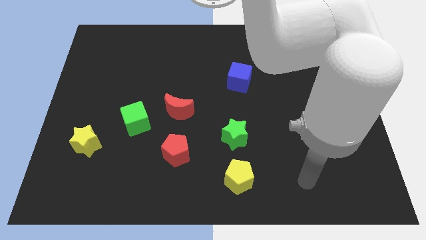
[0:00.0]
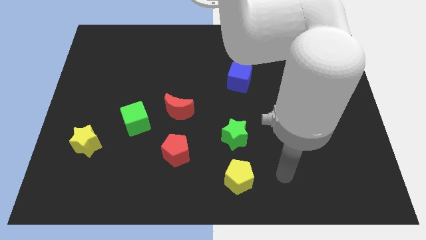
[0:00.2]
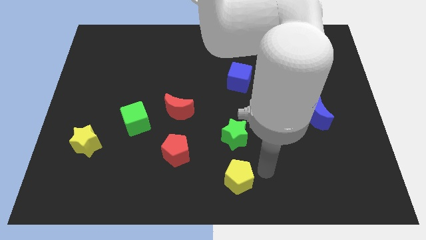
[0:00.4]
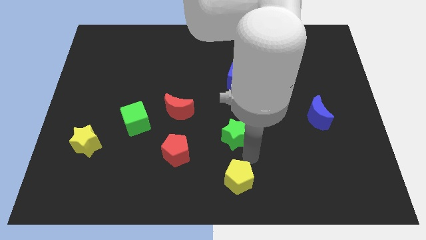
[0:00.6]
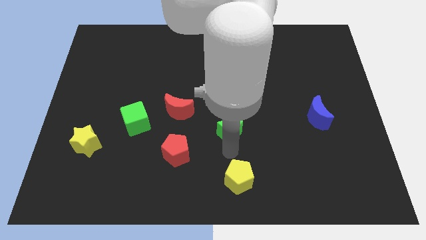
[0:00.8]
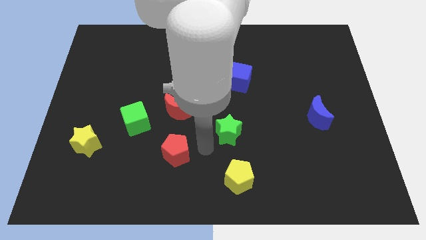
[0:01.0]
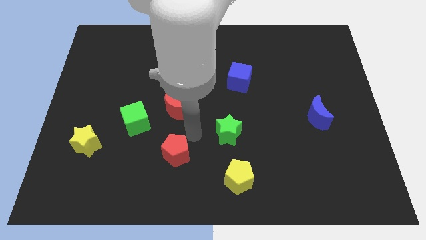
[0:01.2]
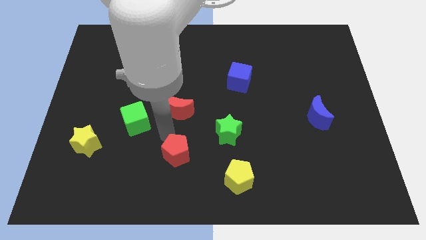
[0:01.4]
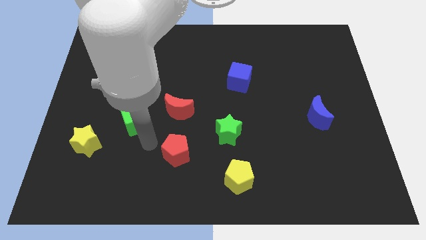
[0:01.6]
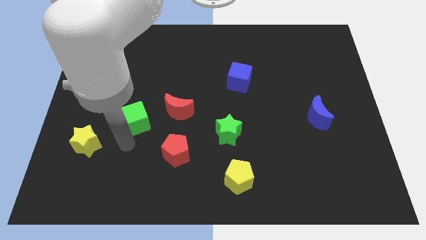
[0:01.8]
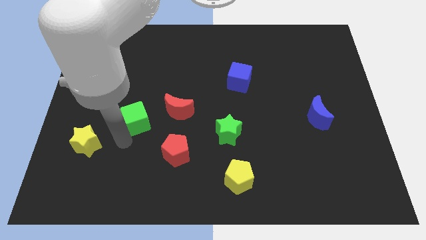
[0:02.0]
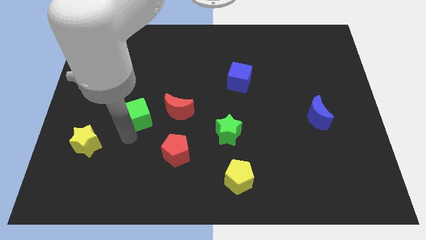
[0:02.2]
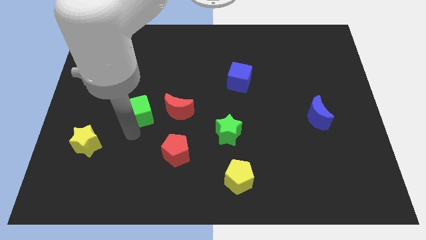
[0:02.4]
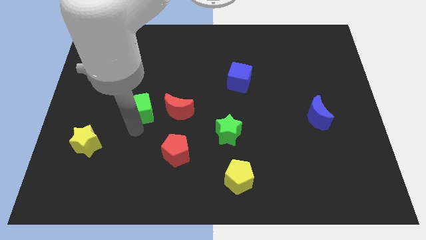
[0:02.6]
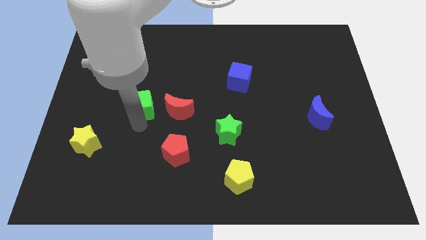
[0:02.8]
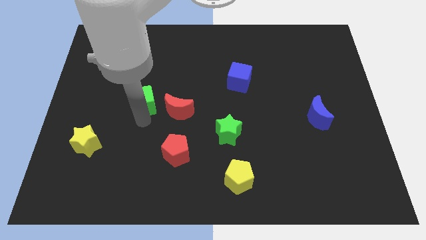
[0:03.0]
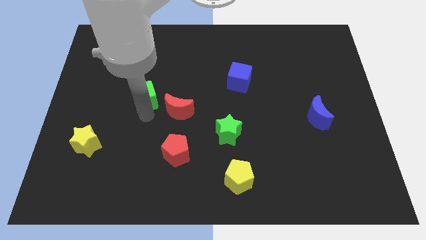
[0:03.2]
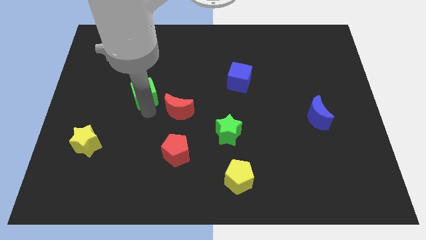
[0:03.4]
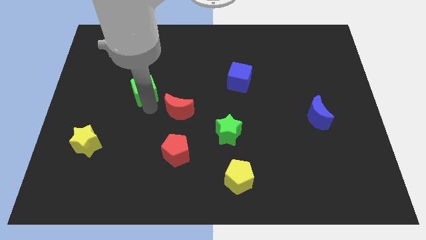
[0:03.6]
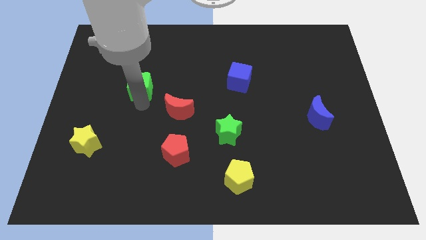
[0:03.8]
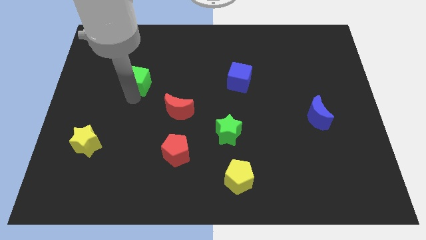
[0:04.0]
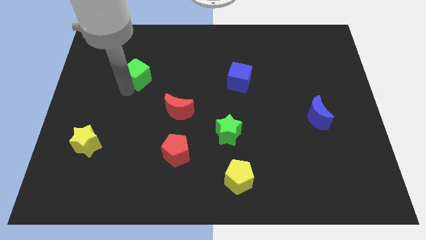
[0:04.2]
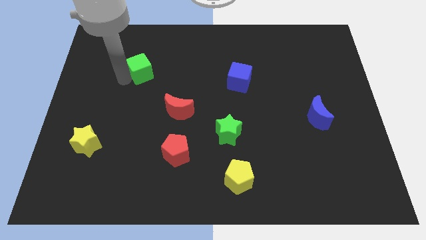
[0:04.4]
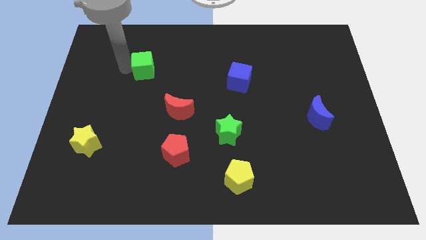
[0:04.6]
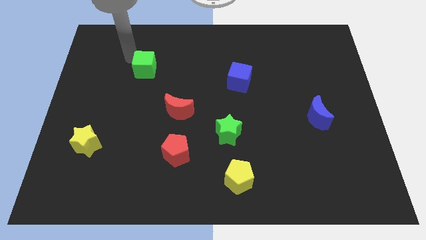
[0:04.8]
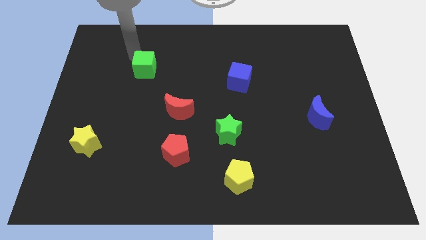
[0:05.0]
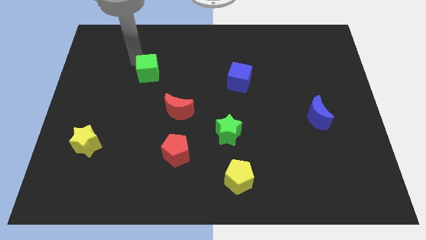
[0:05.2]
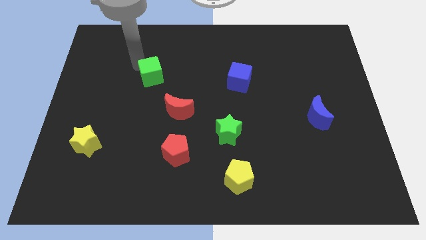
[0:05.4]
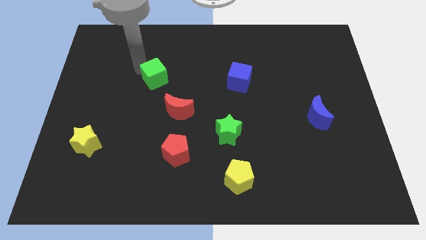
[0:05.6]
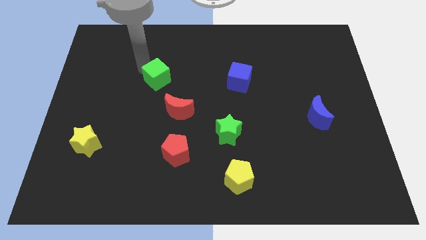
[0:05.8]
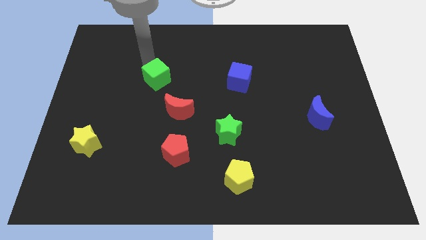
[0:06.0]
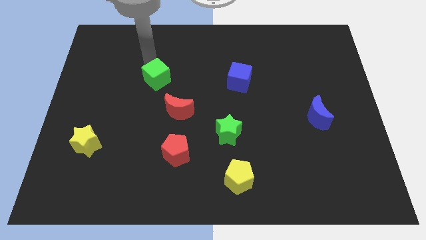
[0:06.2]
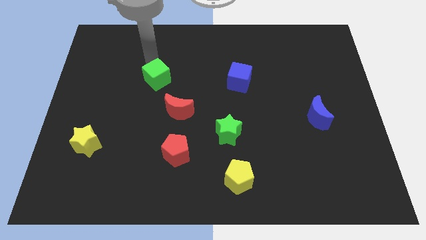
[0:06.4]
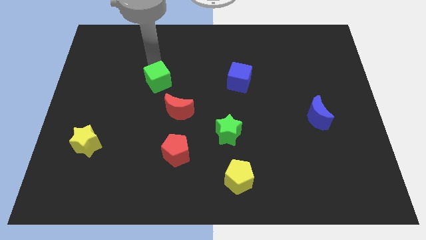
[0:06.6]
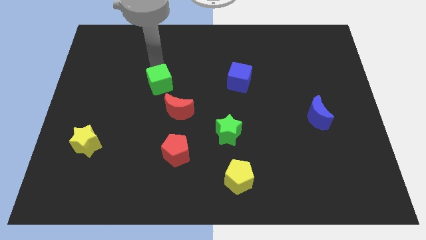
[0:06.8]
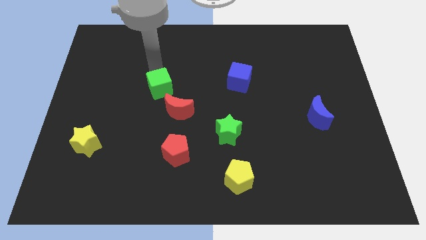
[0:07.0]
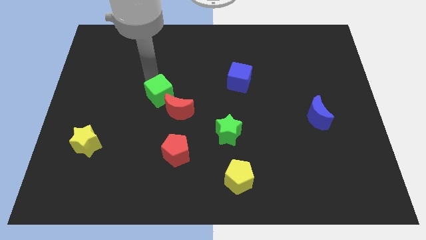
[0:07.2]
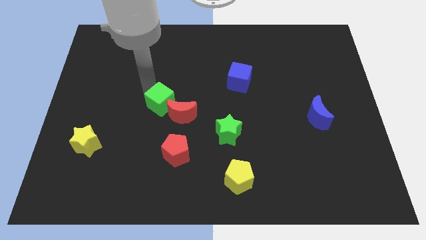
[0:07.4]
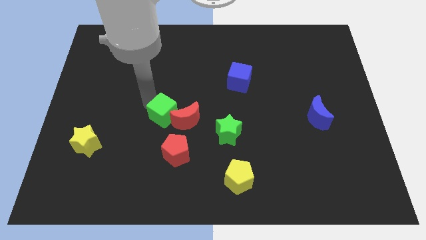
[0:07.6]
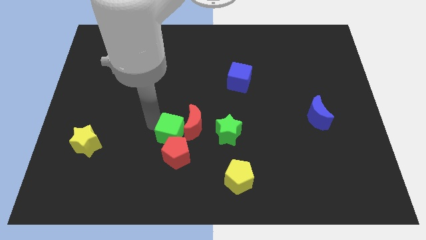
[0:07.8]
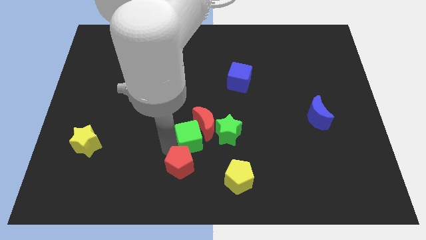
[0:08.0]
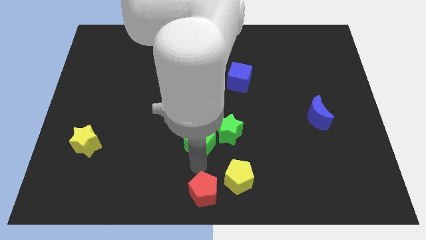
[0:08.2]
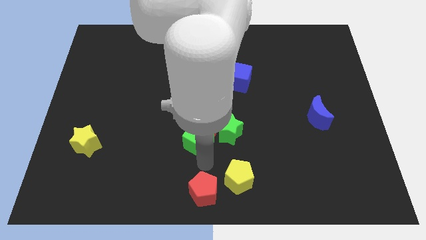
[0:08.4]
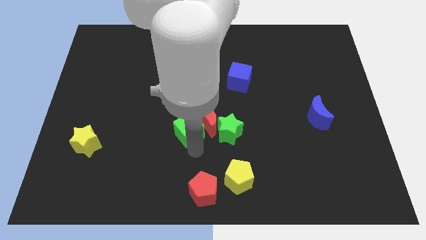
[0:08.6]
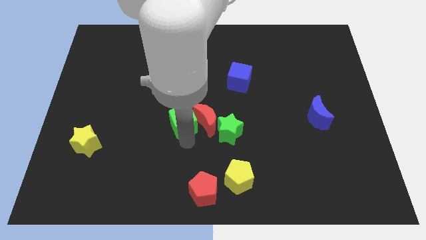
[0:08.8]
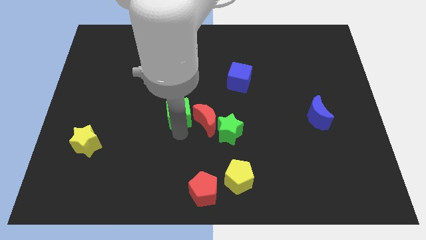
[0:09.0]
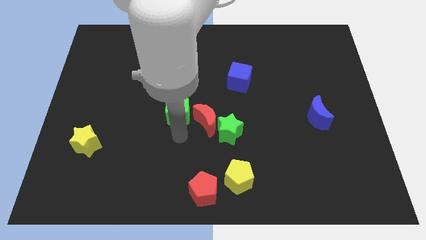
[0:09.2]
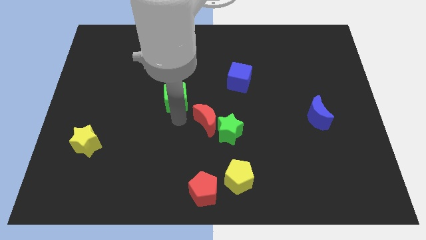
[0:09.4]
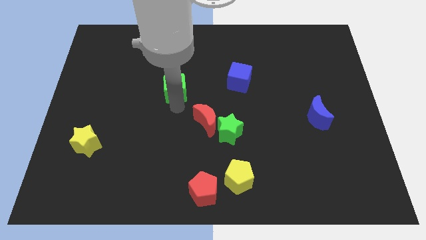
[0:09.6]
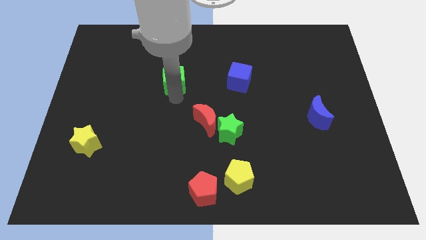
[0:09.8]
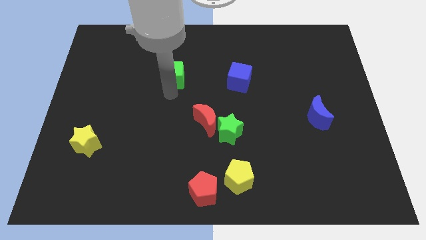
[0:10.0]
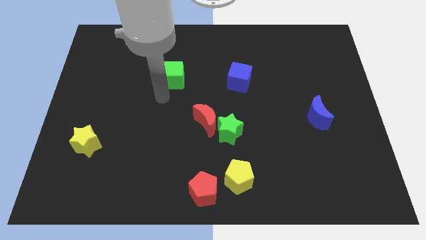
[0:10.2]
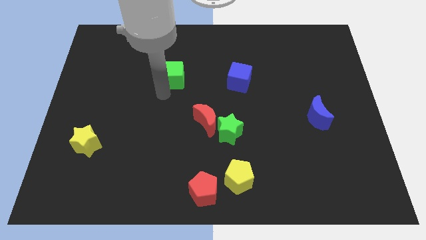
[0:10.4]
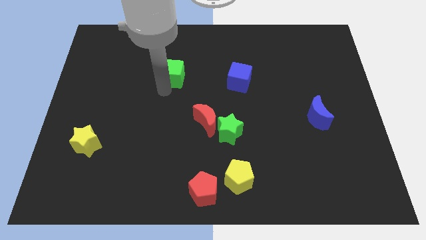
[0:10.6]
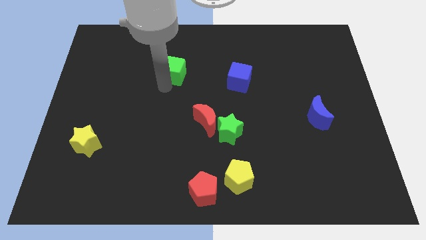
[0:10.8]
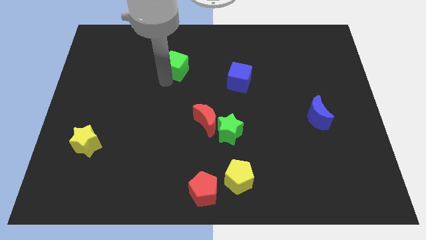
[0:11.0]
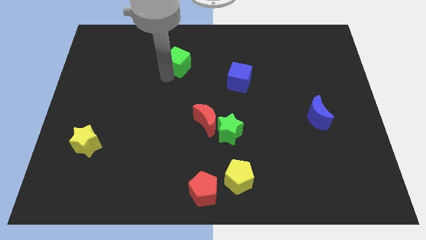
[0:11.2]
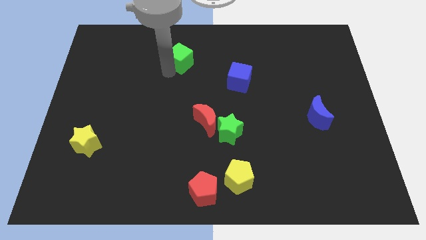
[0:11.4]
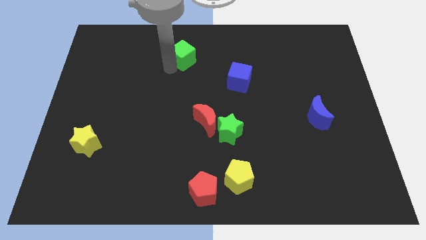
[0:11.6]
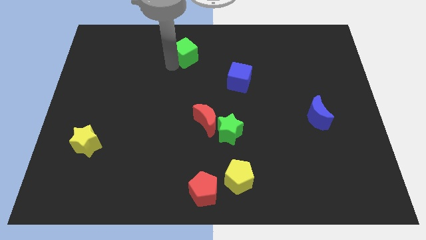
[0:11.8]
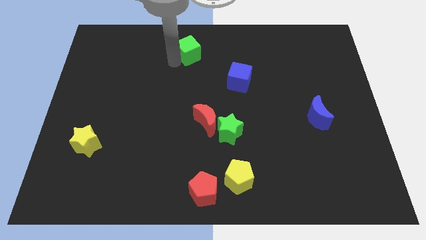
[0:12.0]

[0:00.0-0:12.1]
move the green cube to the top
